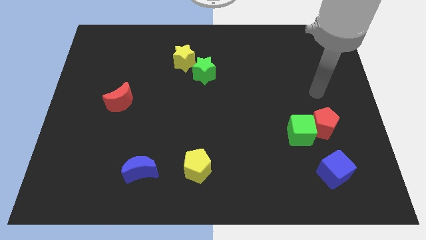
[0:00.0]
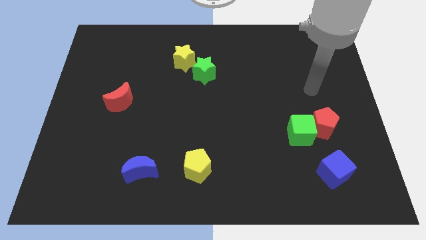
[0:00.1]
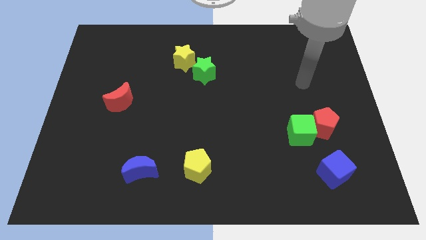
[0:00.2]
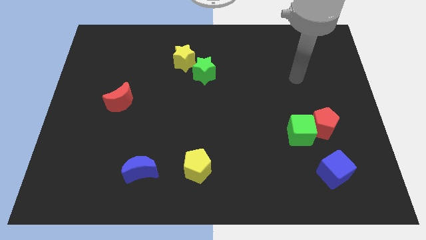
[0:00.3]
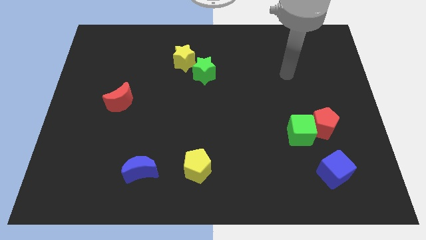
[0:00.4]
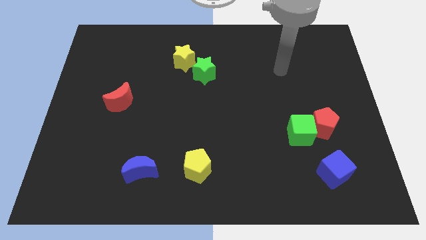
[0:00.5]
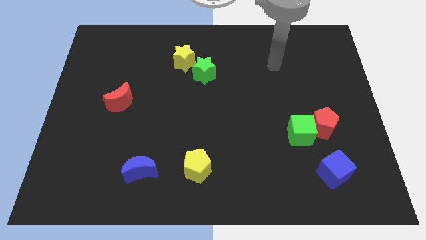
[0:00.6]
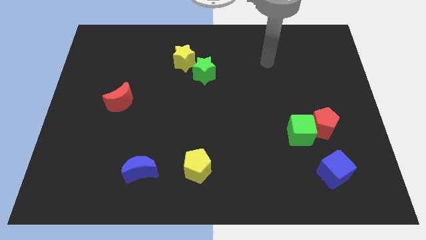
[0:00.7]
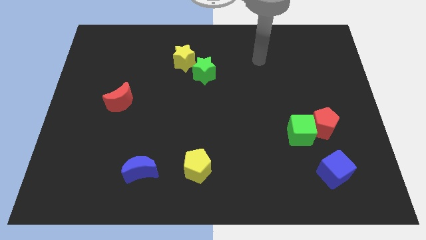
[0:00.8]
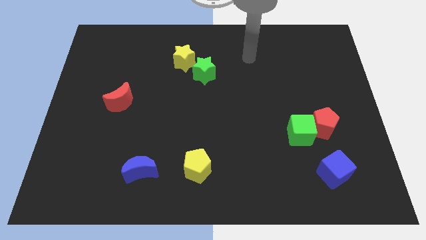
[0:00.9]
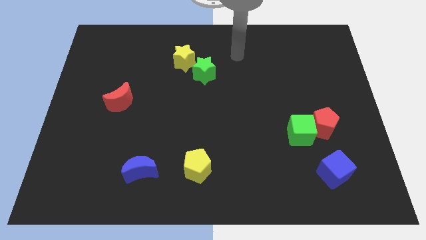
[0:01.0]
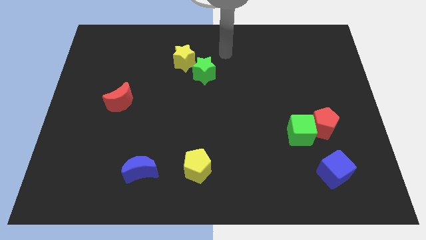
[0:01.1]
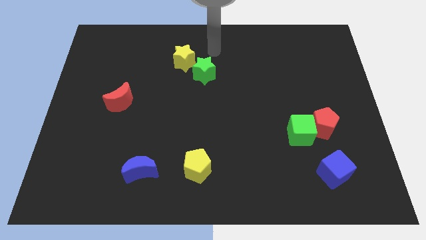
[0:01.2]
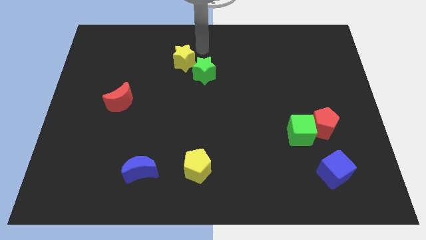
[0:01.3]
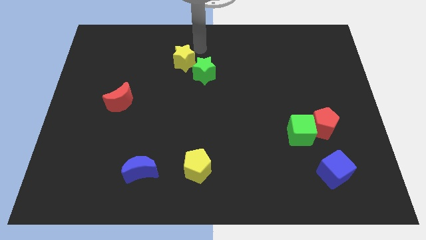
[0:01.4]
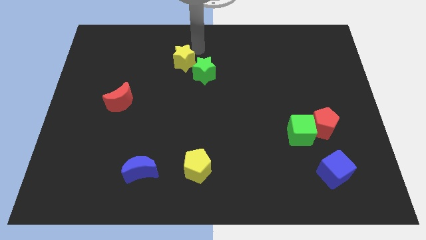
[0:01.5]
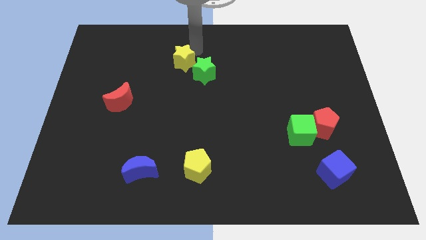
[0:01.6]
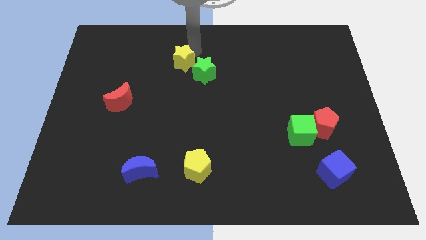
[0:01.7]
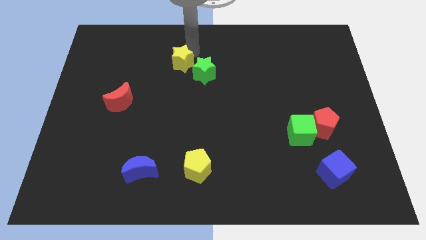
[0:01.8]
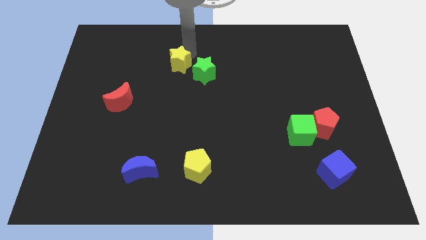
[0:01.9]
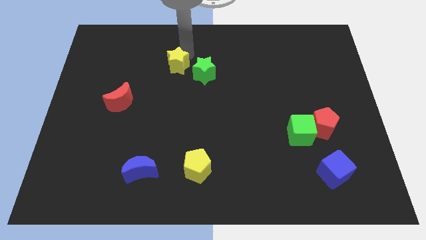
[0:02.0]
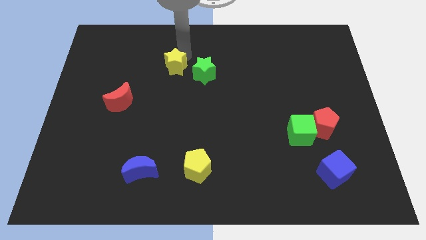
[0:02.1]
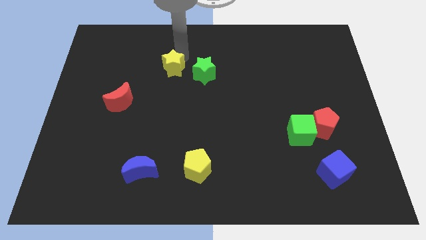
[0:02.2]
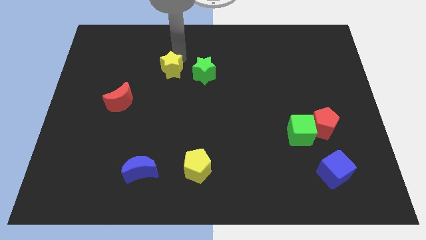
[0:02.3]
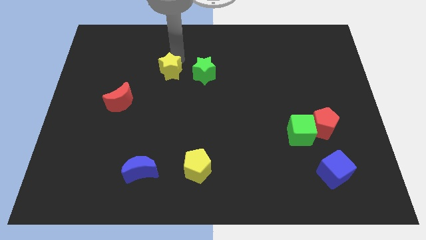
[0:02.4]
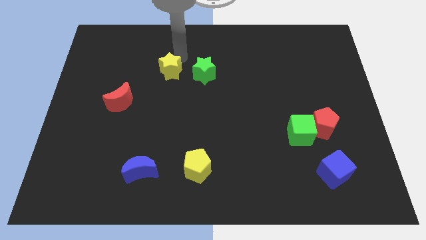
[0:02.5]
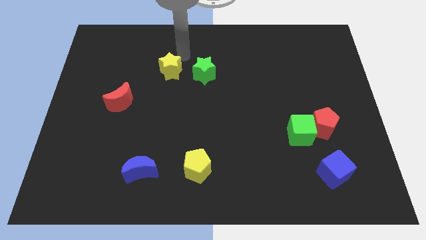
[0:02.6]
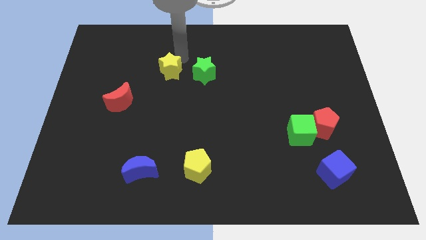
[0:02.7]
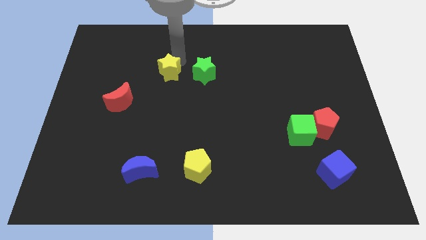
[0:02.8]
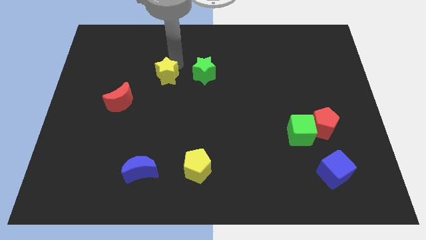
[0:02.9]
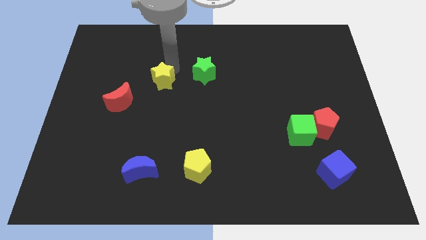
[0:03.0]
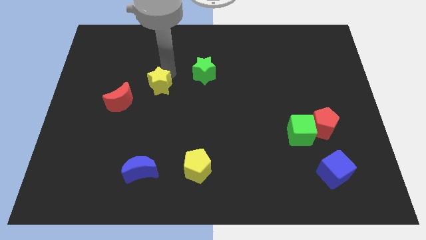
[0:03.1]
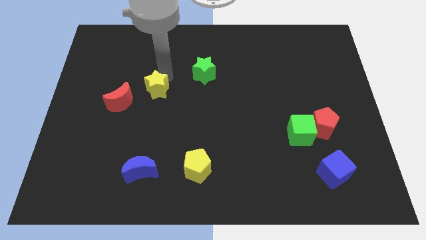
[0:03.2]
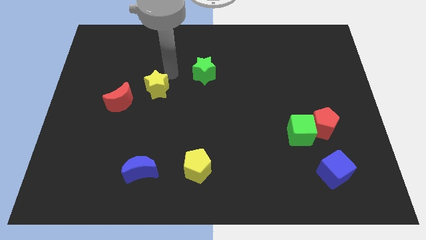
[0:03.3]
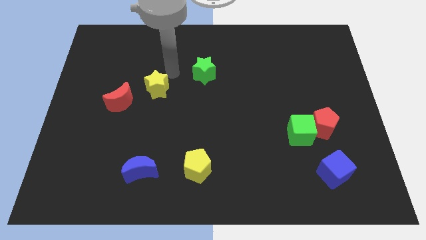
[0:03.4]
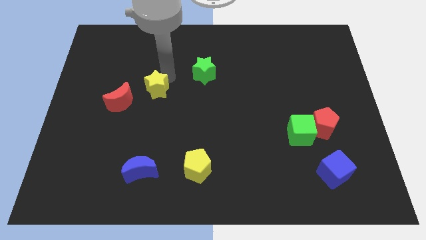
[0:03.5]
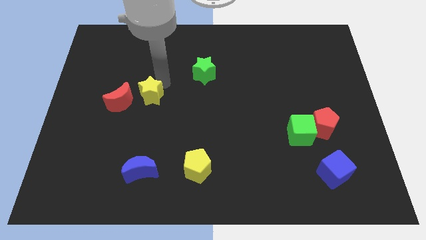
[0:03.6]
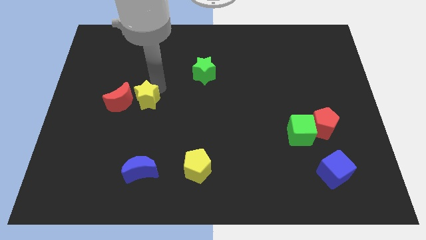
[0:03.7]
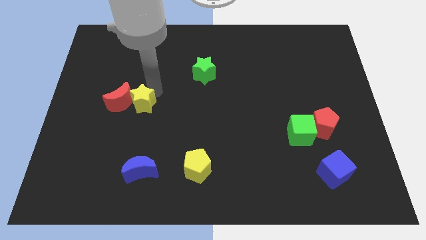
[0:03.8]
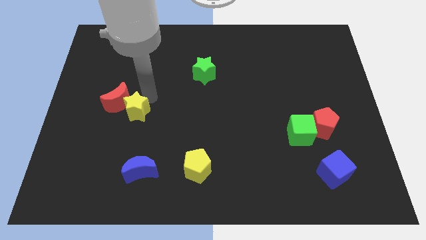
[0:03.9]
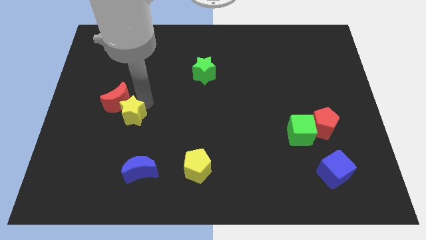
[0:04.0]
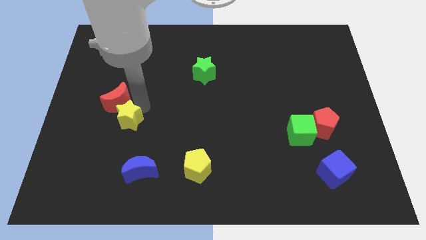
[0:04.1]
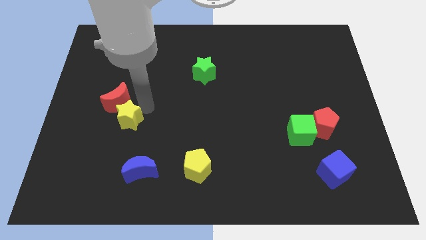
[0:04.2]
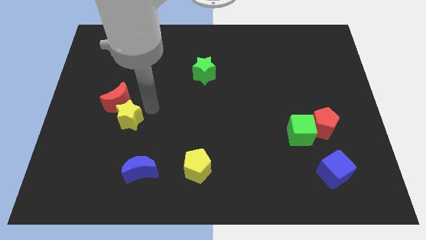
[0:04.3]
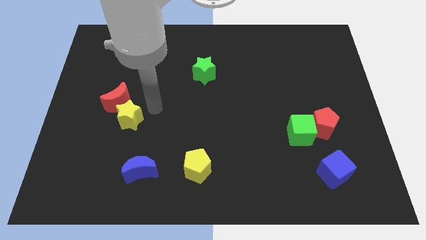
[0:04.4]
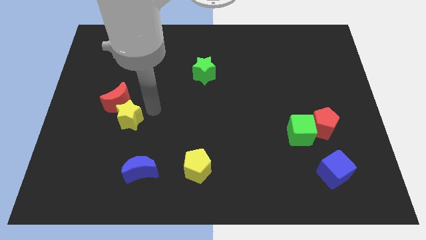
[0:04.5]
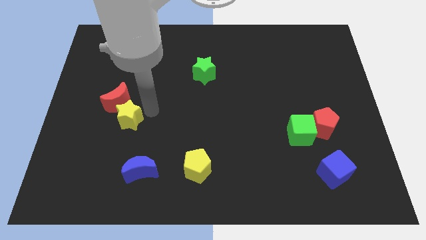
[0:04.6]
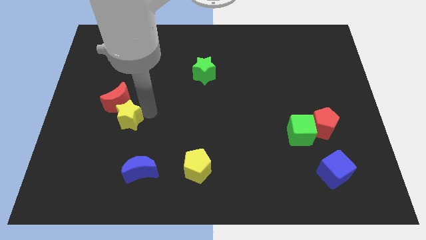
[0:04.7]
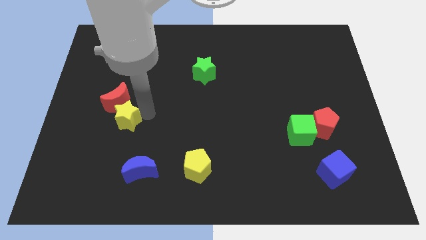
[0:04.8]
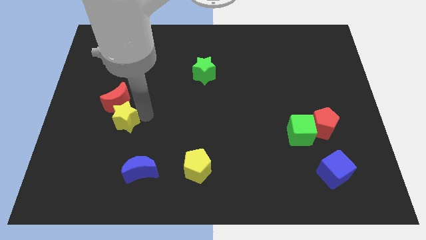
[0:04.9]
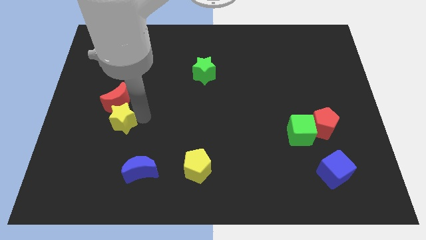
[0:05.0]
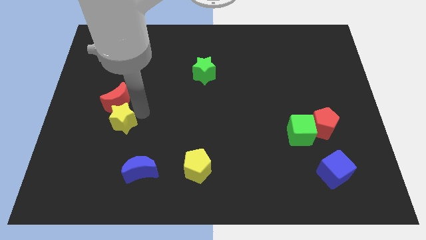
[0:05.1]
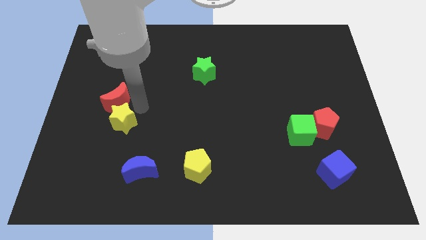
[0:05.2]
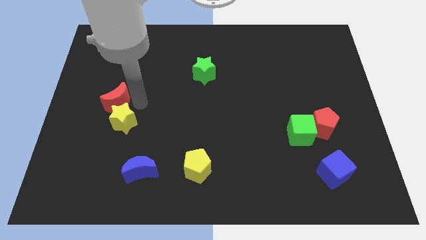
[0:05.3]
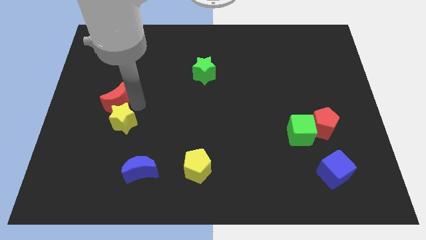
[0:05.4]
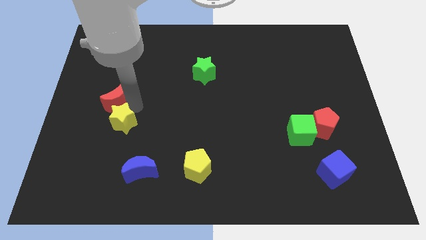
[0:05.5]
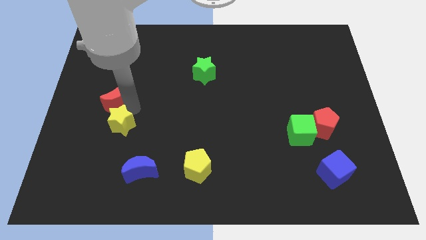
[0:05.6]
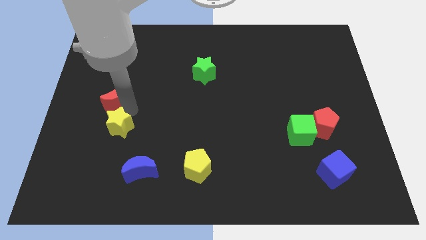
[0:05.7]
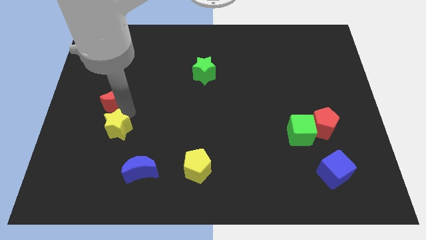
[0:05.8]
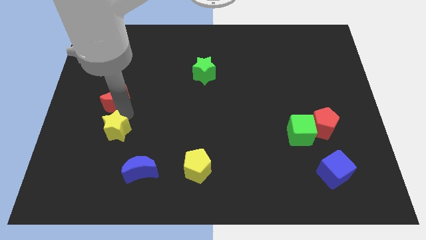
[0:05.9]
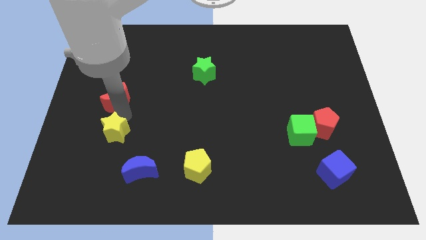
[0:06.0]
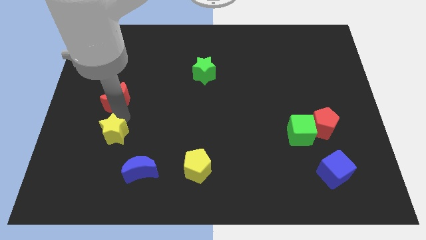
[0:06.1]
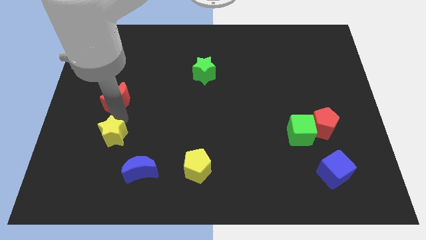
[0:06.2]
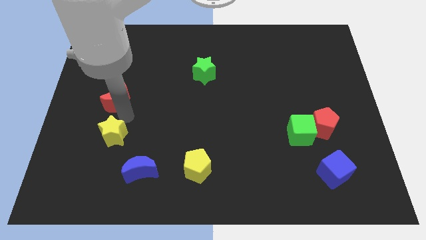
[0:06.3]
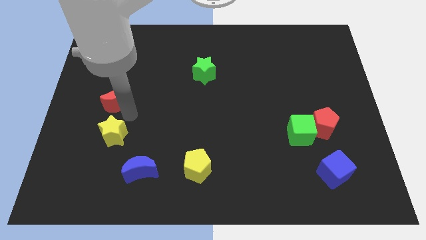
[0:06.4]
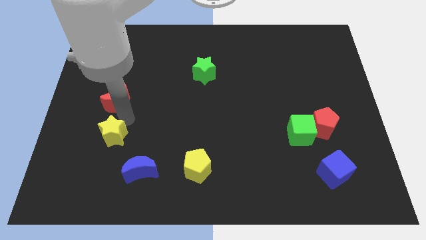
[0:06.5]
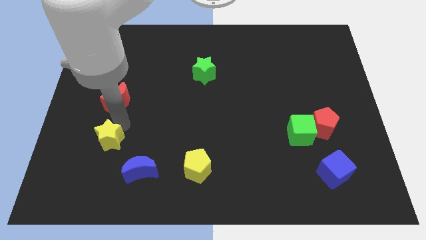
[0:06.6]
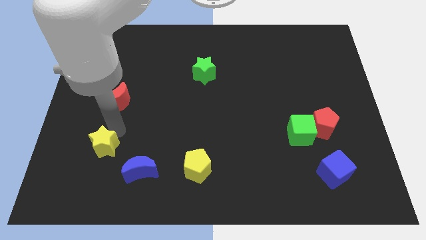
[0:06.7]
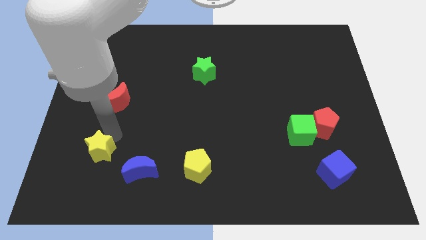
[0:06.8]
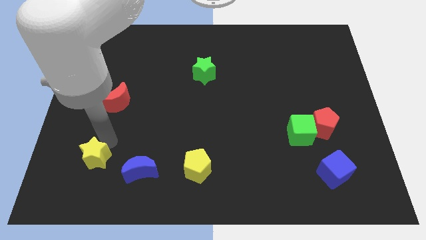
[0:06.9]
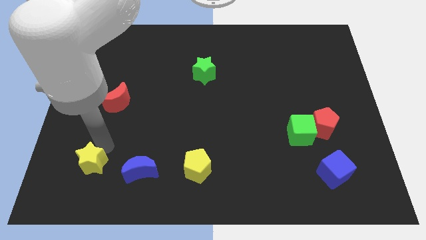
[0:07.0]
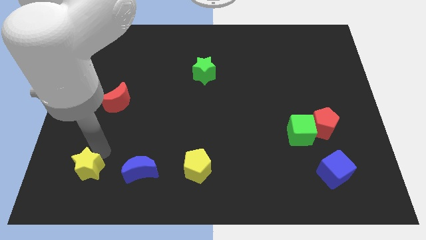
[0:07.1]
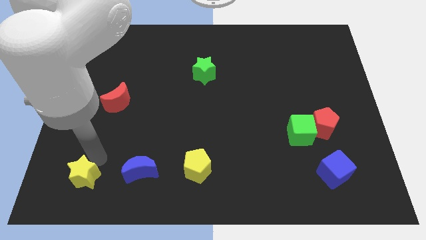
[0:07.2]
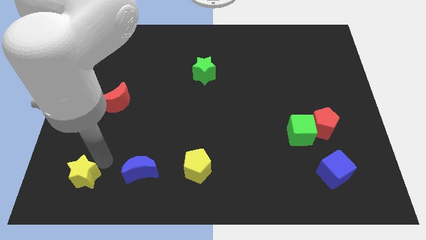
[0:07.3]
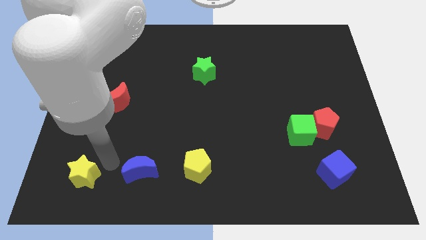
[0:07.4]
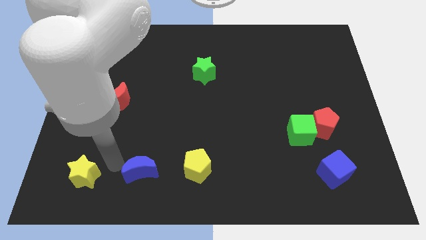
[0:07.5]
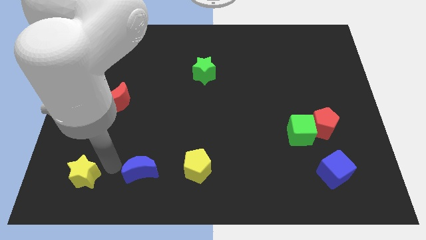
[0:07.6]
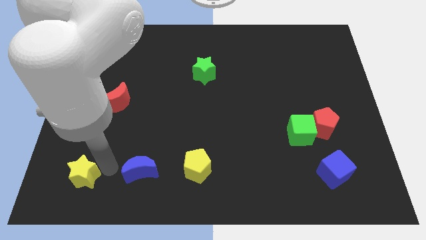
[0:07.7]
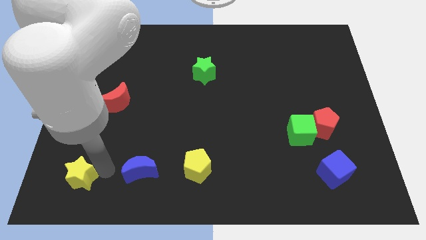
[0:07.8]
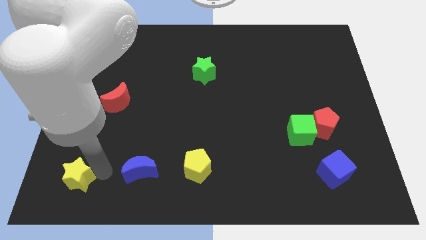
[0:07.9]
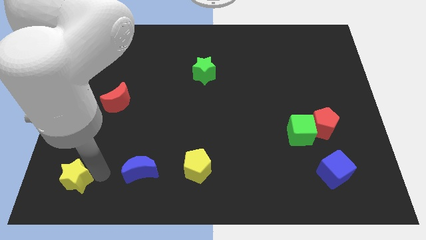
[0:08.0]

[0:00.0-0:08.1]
put the yellow star to the bottom left corner
